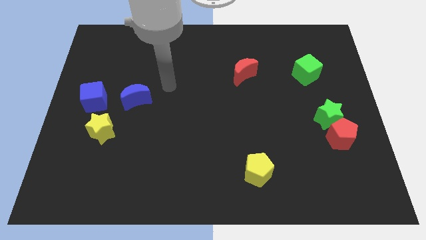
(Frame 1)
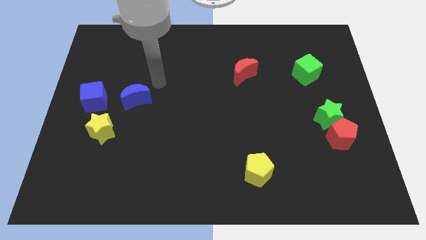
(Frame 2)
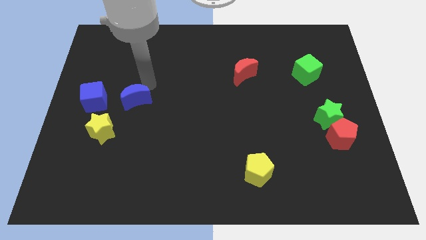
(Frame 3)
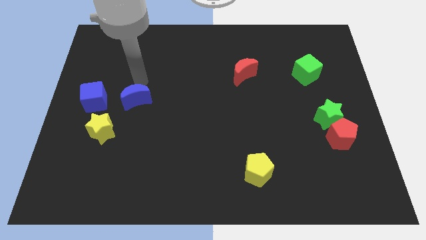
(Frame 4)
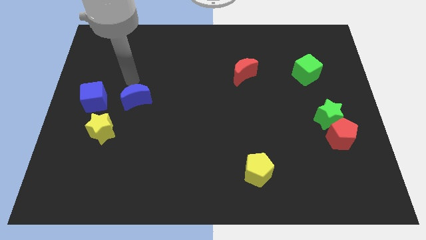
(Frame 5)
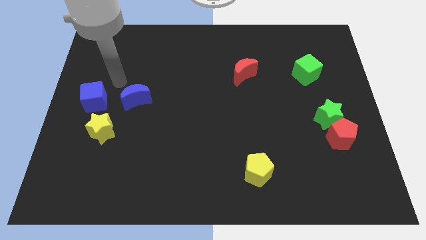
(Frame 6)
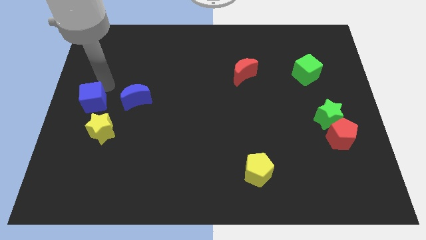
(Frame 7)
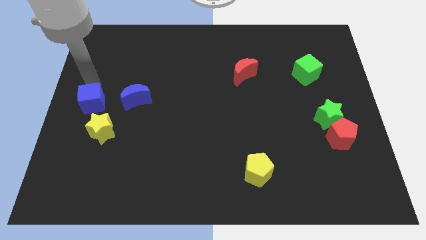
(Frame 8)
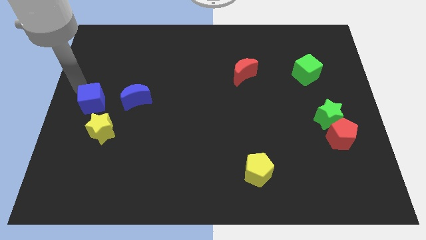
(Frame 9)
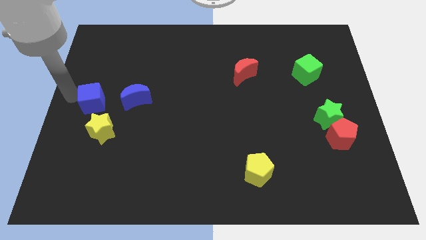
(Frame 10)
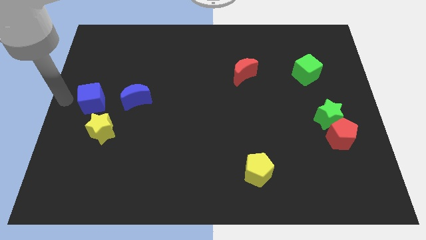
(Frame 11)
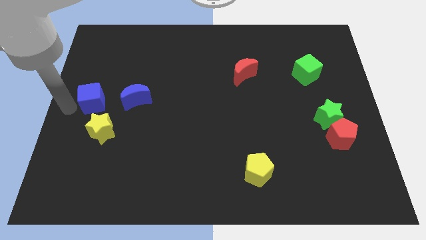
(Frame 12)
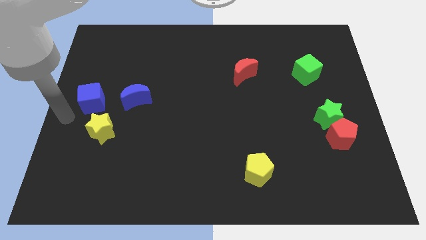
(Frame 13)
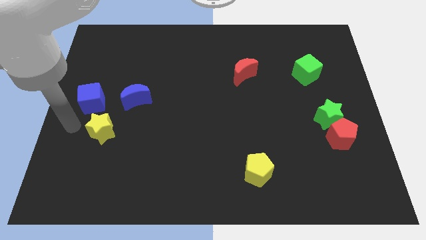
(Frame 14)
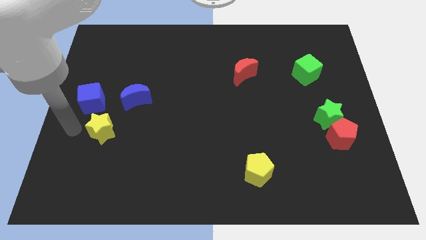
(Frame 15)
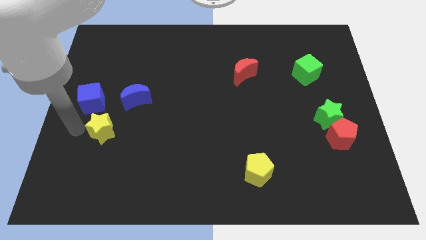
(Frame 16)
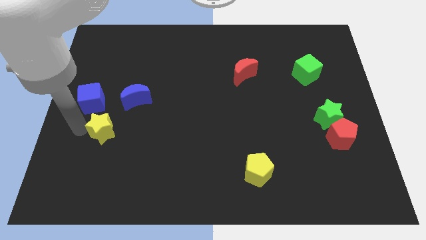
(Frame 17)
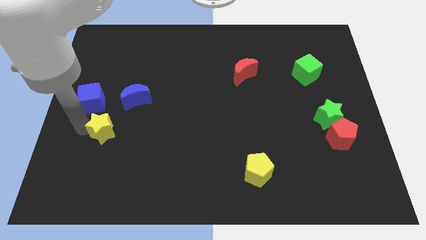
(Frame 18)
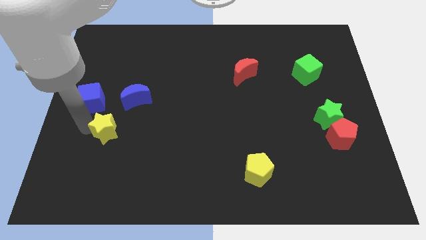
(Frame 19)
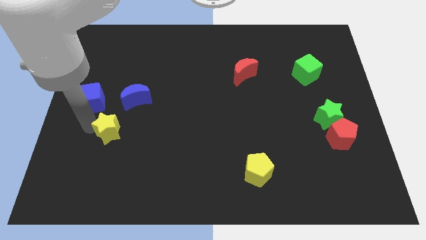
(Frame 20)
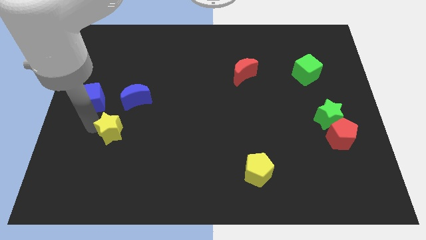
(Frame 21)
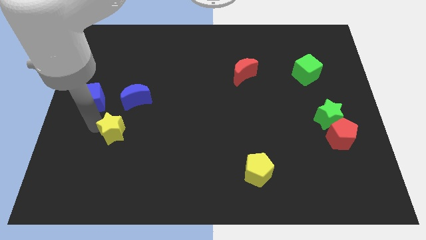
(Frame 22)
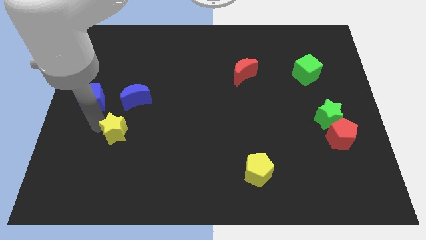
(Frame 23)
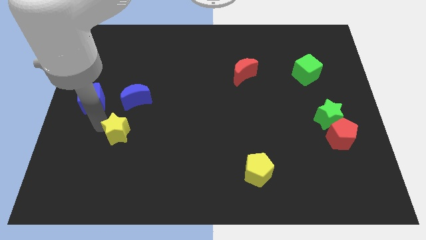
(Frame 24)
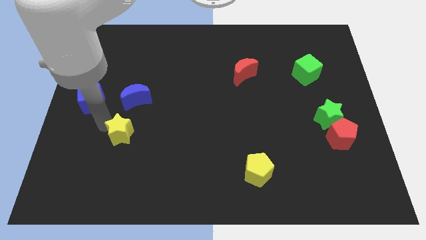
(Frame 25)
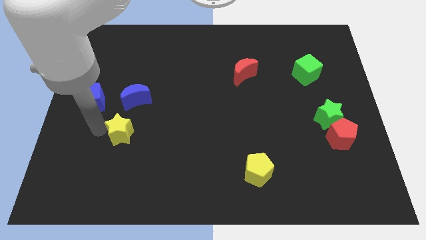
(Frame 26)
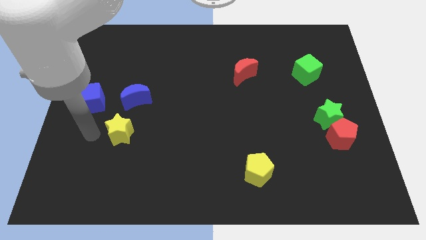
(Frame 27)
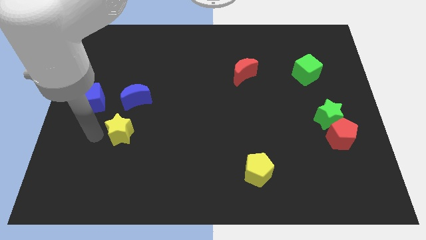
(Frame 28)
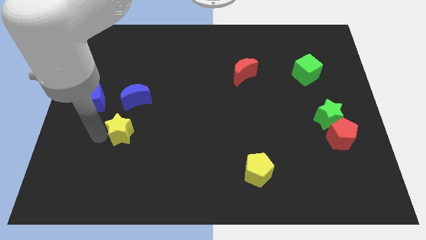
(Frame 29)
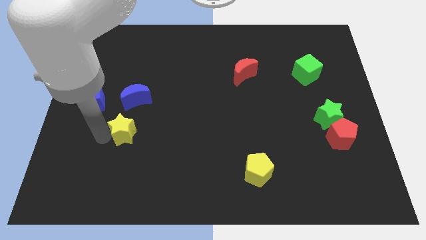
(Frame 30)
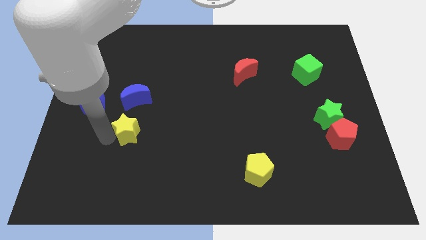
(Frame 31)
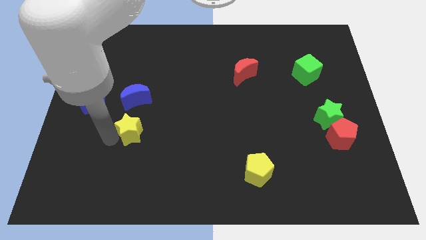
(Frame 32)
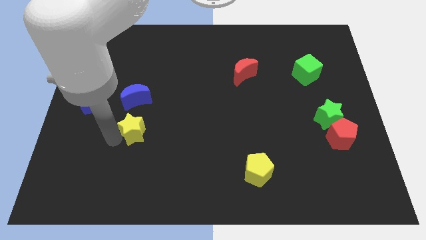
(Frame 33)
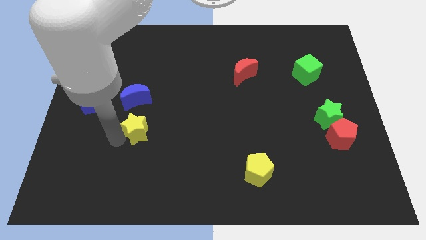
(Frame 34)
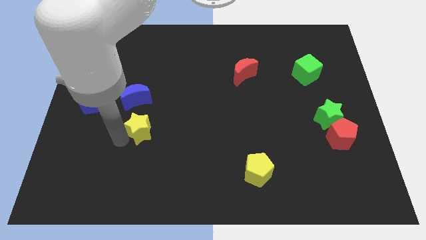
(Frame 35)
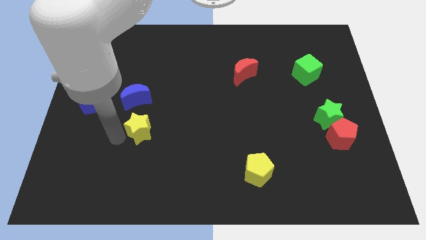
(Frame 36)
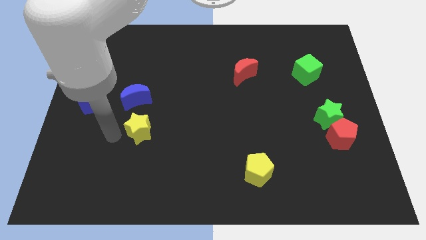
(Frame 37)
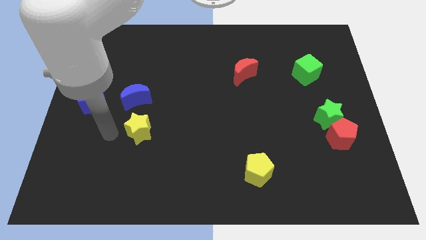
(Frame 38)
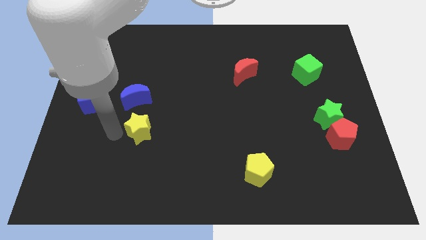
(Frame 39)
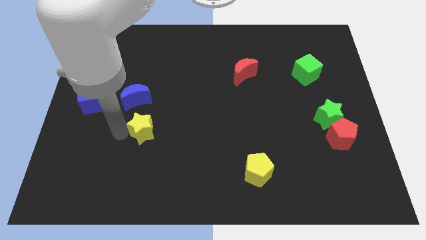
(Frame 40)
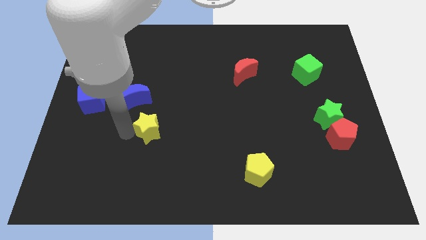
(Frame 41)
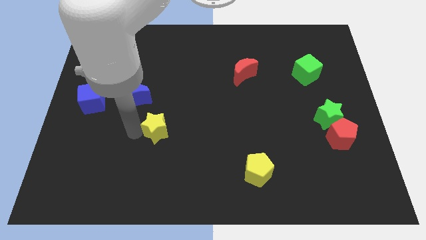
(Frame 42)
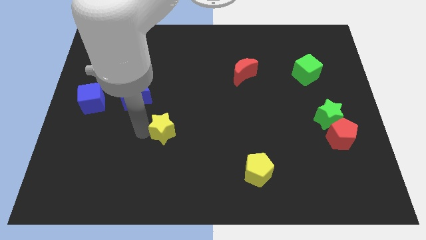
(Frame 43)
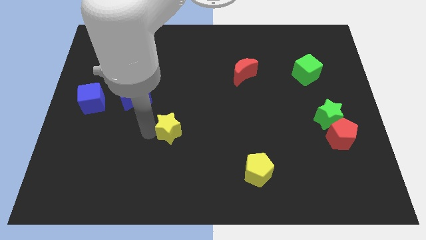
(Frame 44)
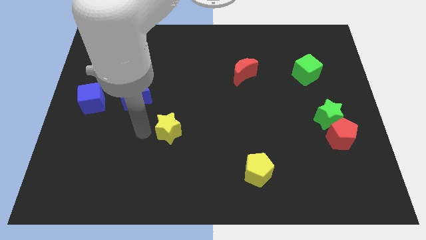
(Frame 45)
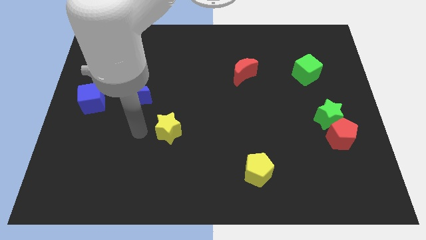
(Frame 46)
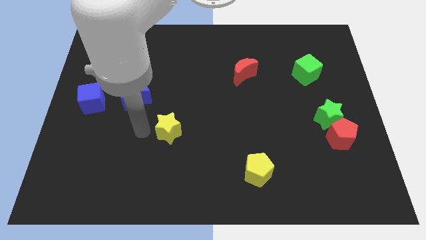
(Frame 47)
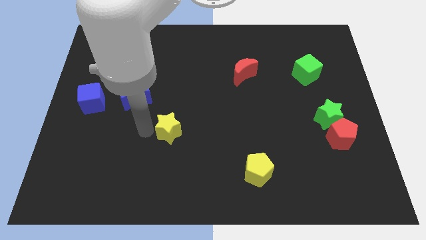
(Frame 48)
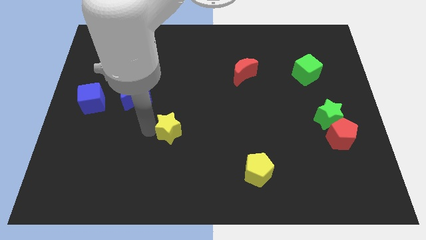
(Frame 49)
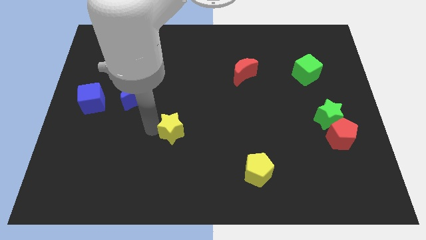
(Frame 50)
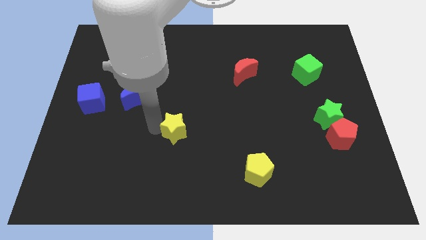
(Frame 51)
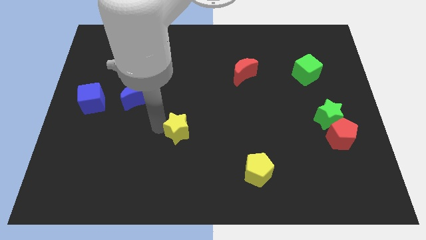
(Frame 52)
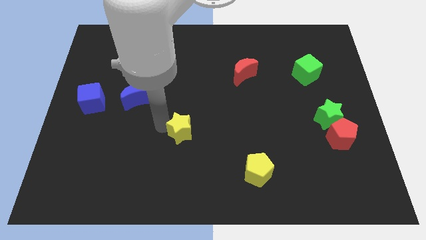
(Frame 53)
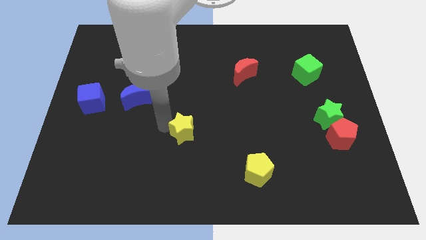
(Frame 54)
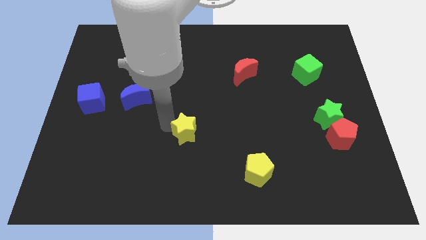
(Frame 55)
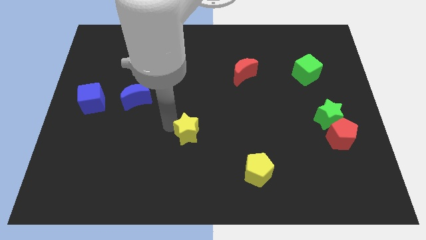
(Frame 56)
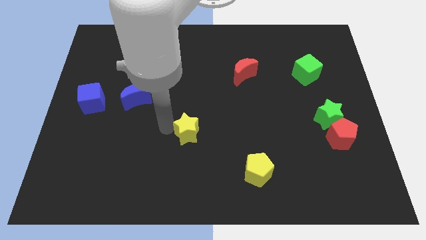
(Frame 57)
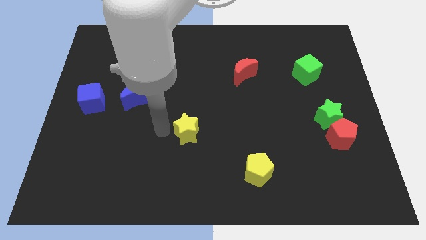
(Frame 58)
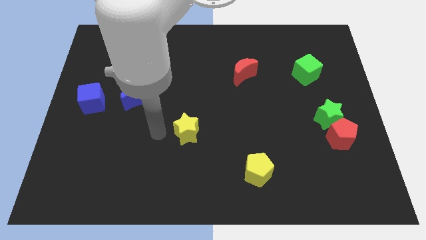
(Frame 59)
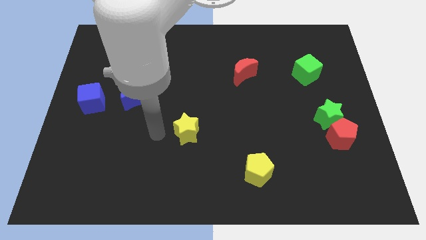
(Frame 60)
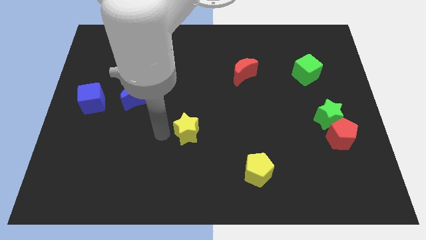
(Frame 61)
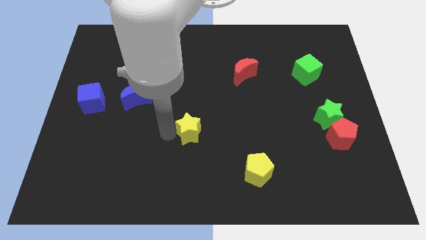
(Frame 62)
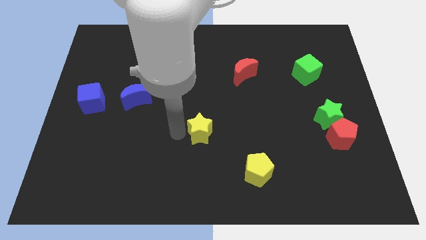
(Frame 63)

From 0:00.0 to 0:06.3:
push the yellow star right

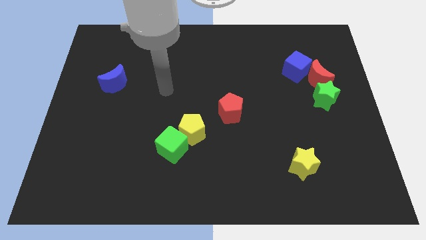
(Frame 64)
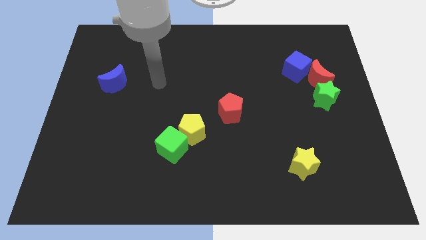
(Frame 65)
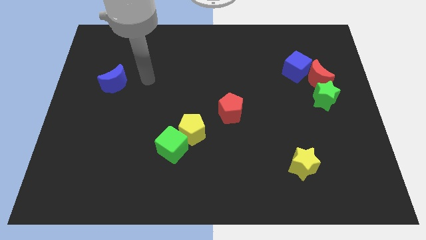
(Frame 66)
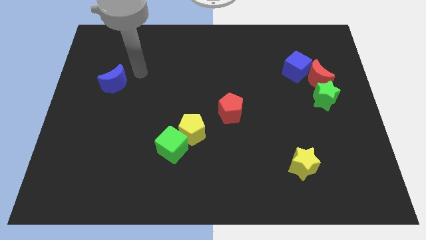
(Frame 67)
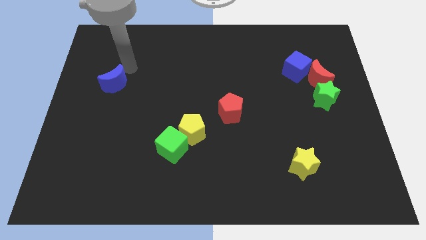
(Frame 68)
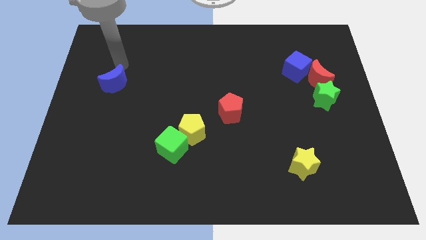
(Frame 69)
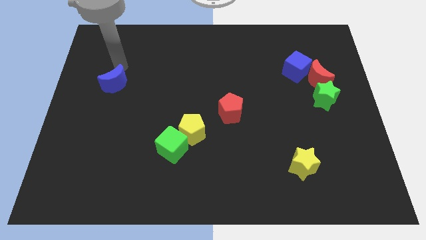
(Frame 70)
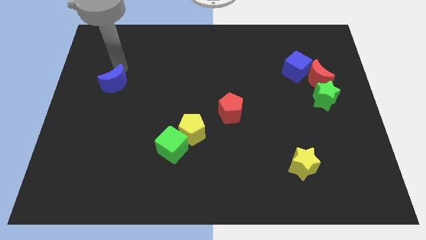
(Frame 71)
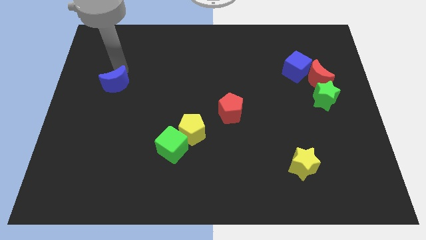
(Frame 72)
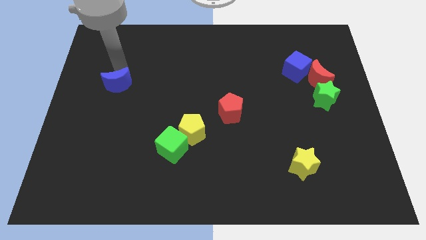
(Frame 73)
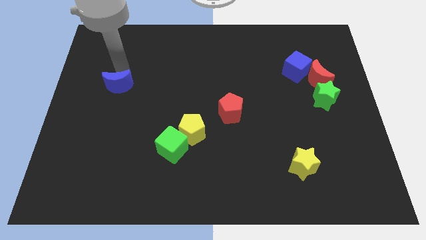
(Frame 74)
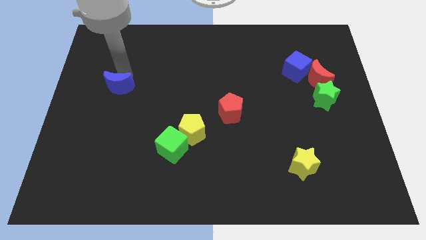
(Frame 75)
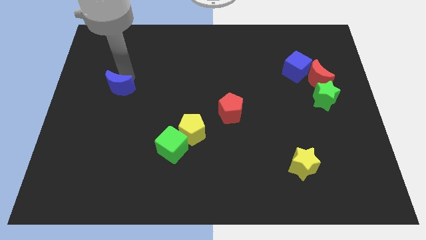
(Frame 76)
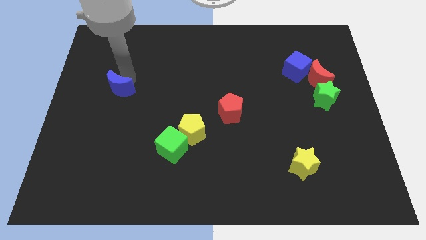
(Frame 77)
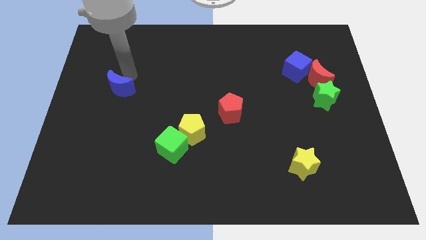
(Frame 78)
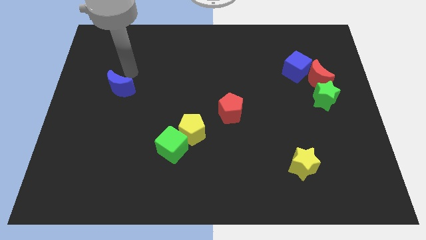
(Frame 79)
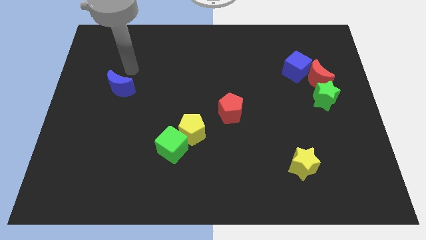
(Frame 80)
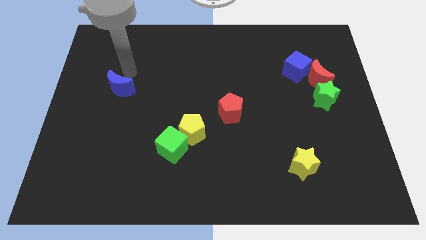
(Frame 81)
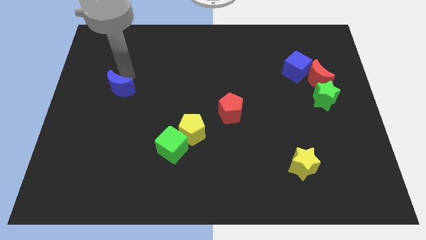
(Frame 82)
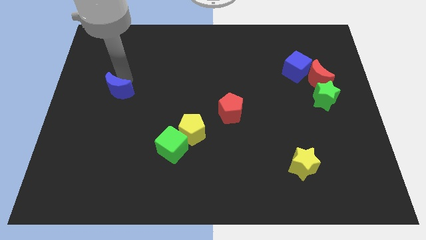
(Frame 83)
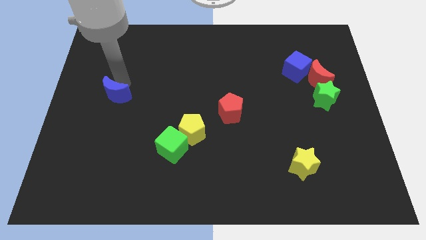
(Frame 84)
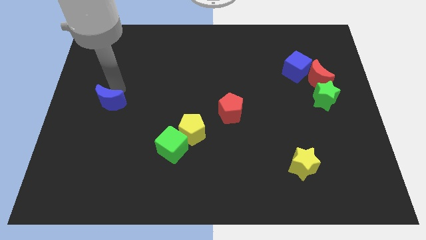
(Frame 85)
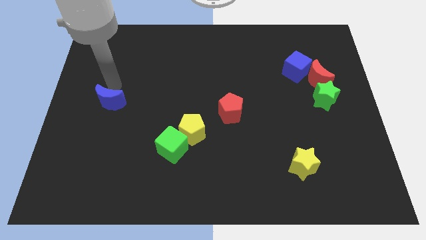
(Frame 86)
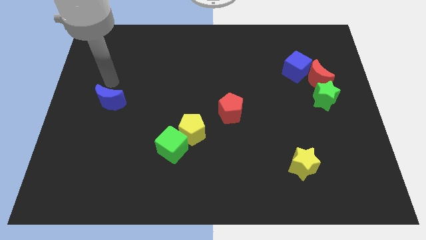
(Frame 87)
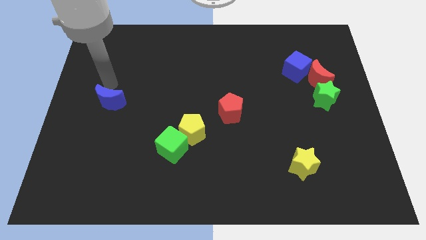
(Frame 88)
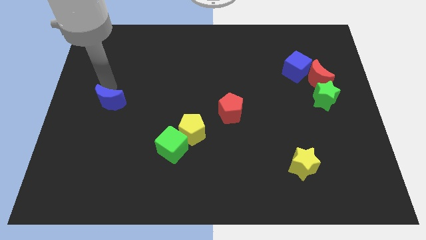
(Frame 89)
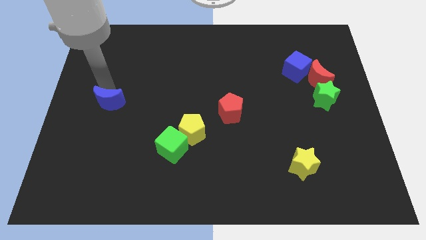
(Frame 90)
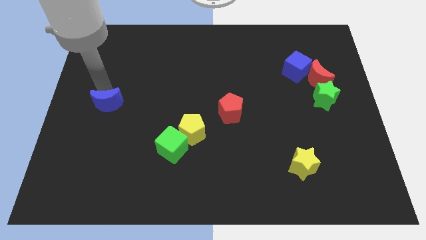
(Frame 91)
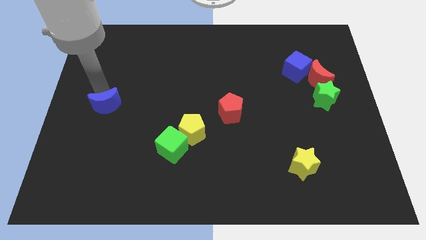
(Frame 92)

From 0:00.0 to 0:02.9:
slide the blue moon a little bit downwards
